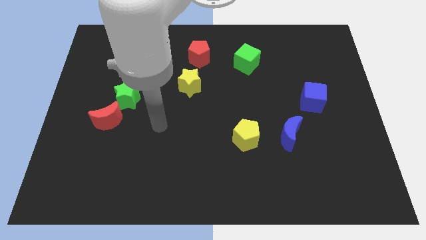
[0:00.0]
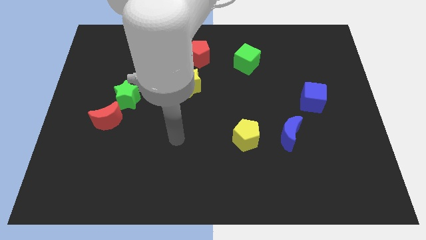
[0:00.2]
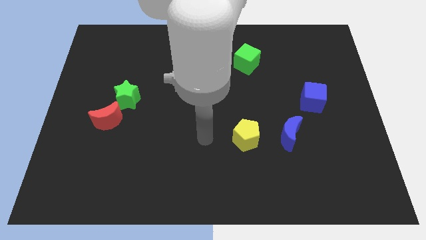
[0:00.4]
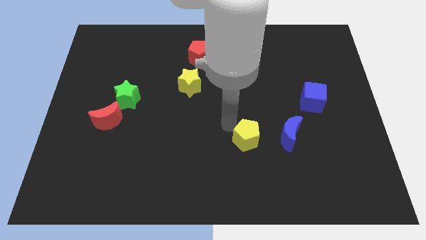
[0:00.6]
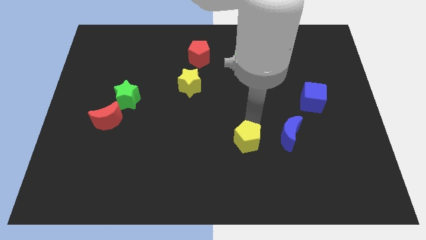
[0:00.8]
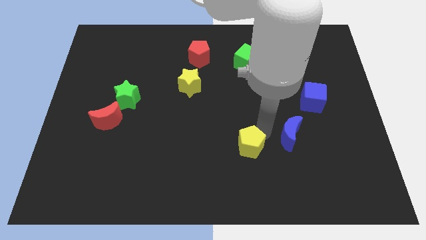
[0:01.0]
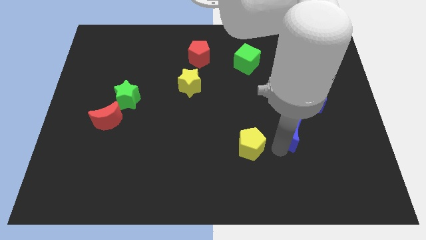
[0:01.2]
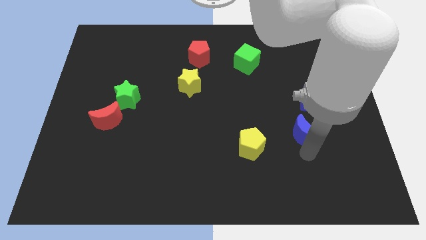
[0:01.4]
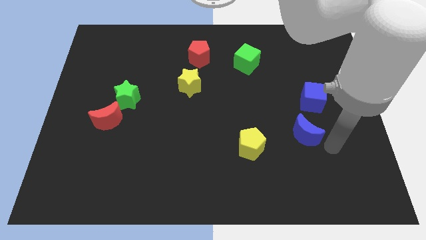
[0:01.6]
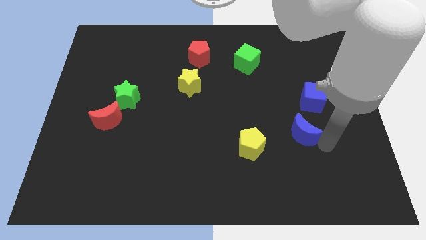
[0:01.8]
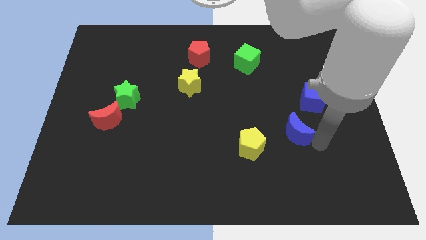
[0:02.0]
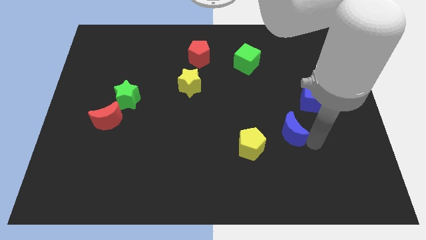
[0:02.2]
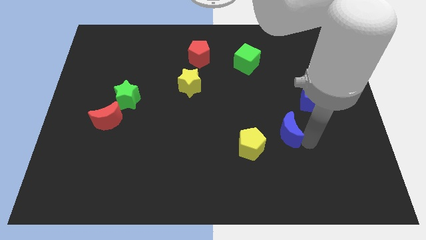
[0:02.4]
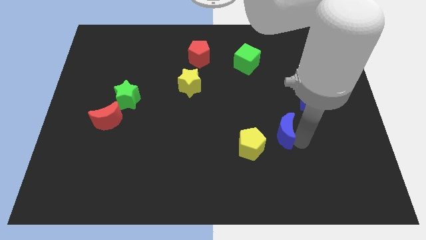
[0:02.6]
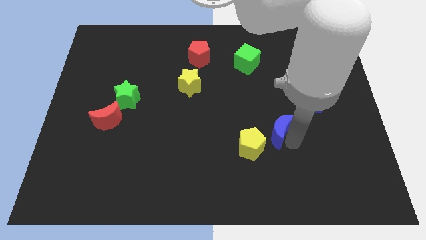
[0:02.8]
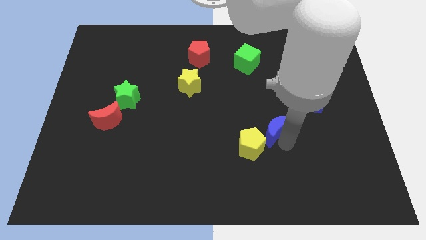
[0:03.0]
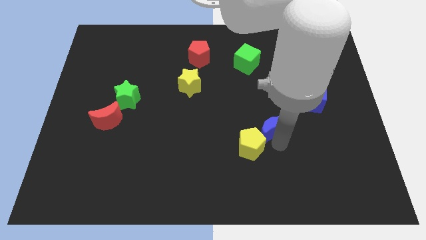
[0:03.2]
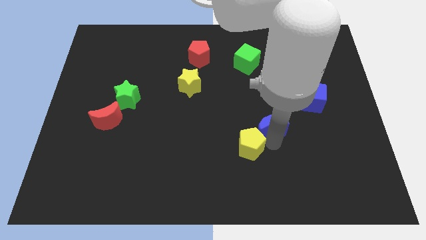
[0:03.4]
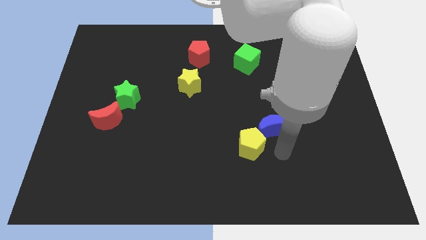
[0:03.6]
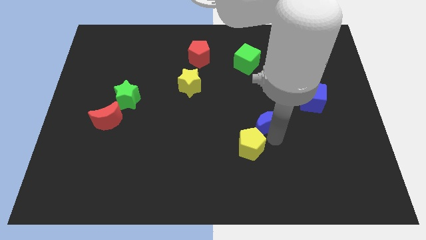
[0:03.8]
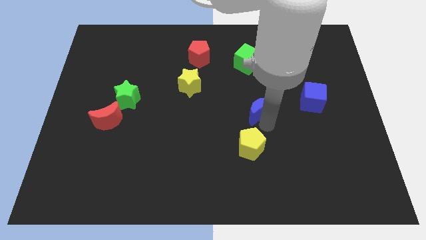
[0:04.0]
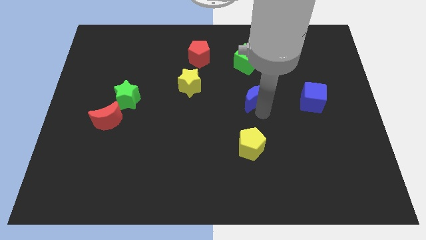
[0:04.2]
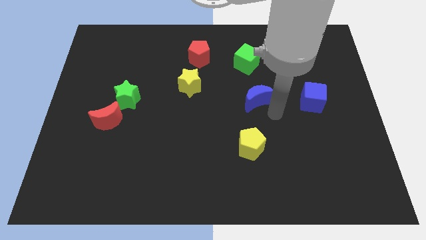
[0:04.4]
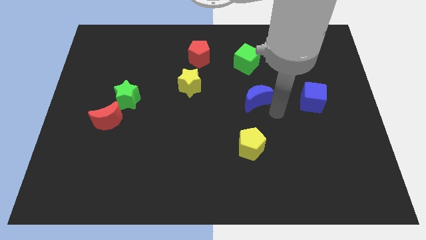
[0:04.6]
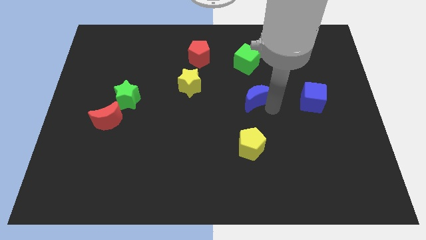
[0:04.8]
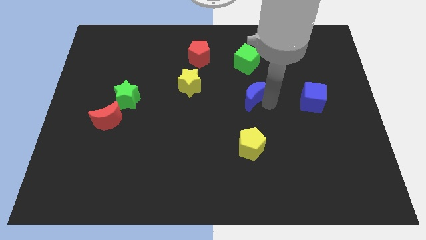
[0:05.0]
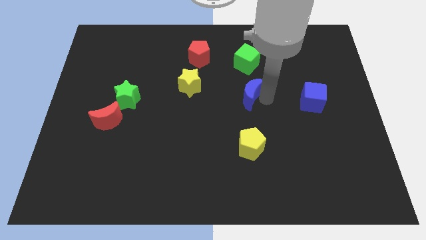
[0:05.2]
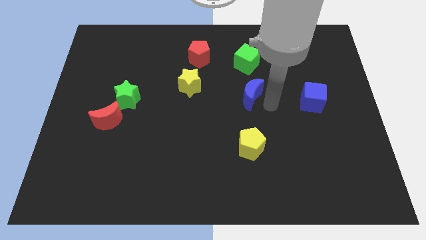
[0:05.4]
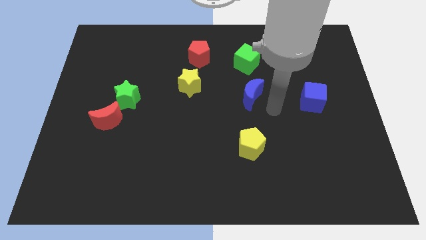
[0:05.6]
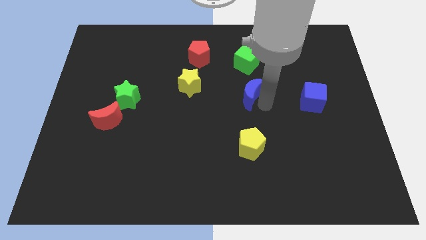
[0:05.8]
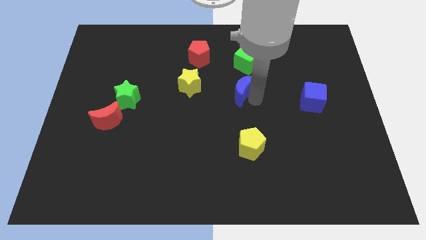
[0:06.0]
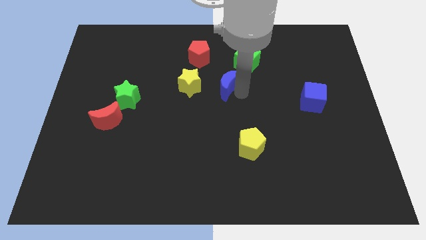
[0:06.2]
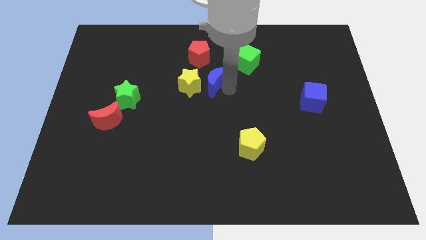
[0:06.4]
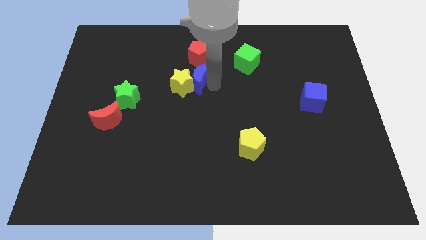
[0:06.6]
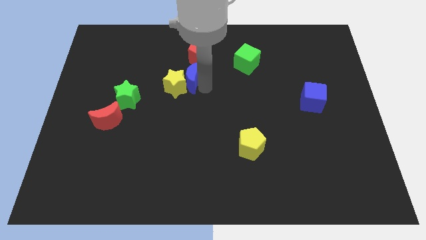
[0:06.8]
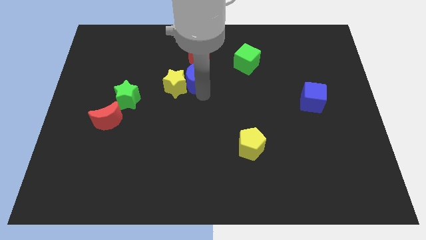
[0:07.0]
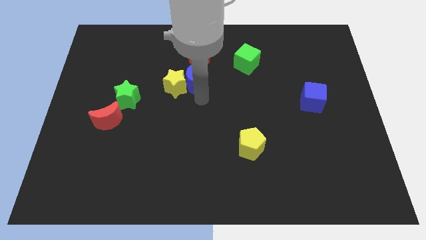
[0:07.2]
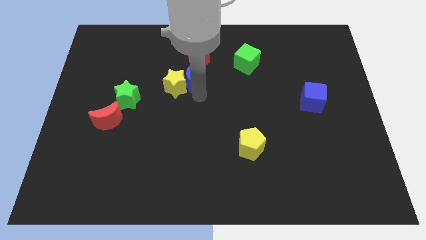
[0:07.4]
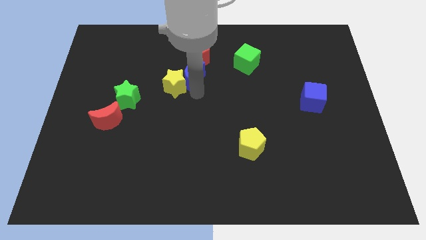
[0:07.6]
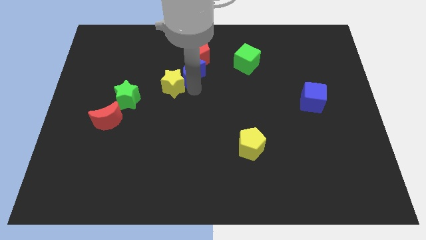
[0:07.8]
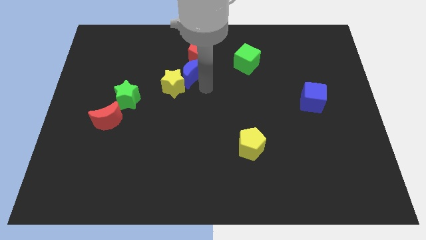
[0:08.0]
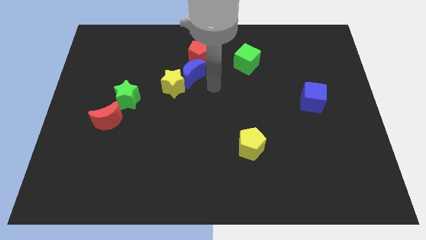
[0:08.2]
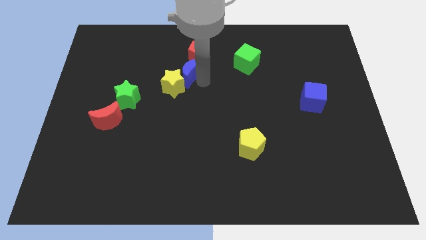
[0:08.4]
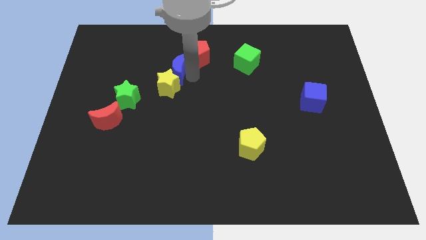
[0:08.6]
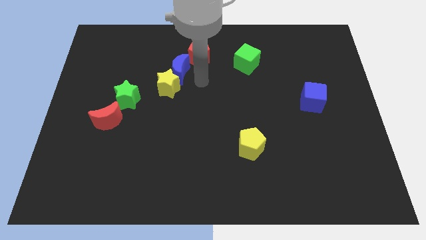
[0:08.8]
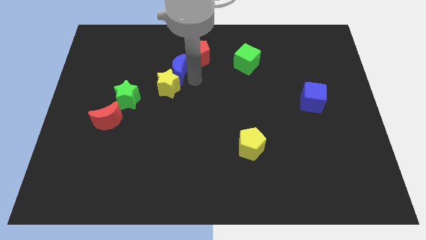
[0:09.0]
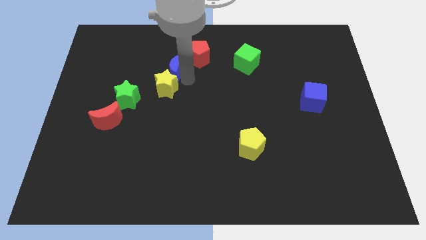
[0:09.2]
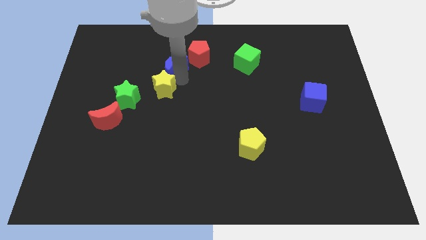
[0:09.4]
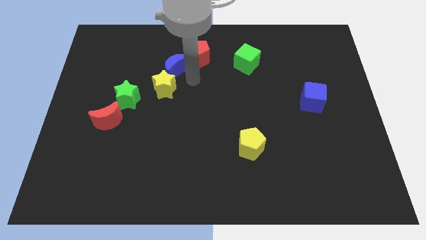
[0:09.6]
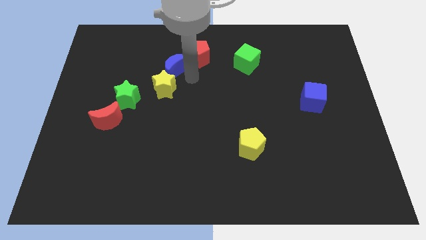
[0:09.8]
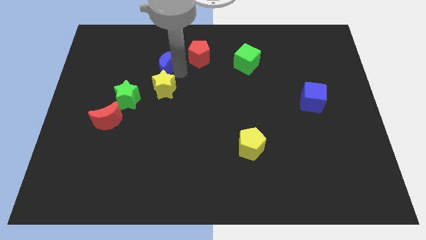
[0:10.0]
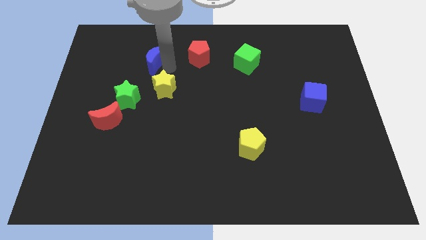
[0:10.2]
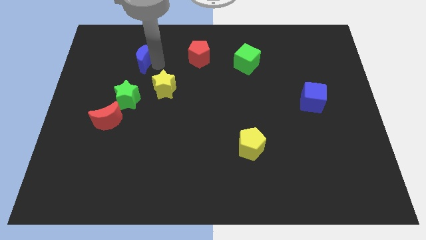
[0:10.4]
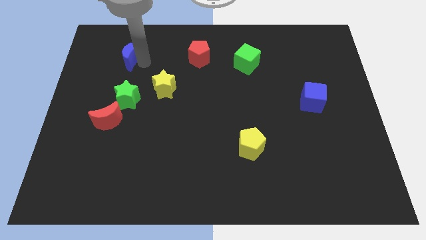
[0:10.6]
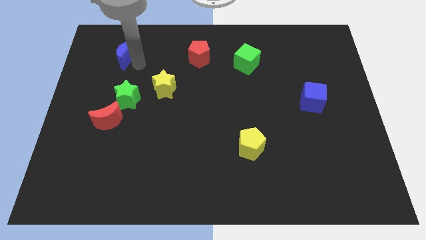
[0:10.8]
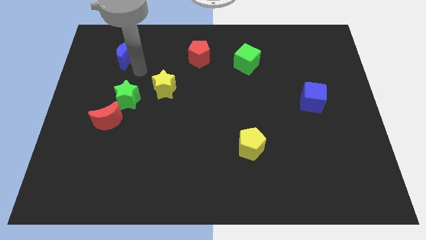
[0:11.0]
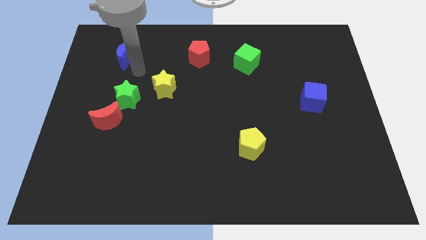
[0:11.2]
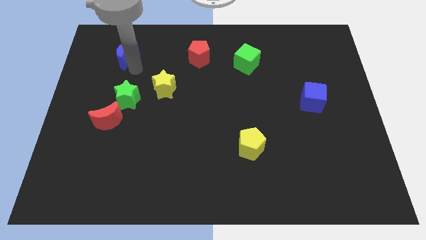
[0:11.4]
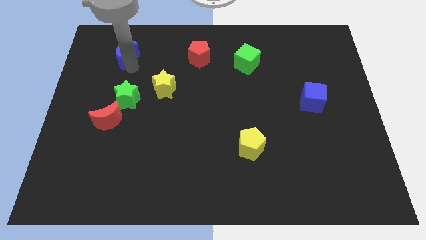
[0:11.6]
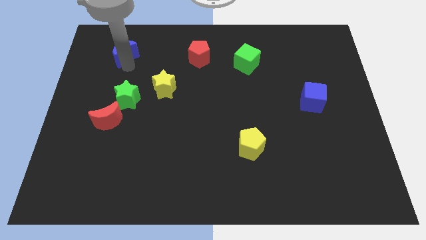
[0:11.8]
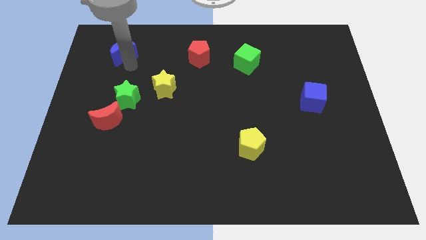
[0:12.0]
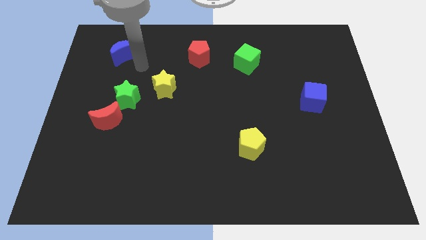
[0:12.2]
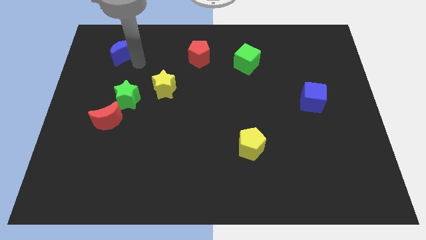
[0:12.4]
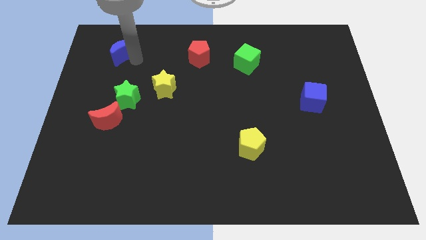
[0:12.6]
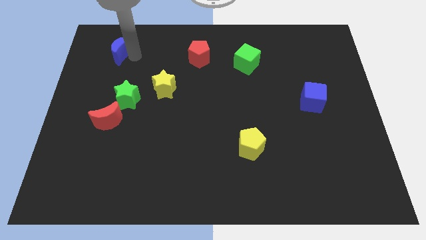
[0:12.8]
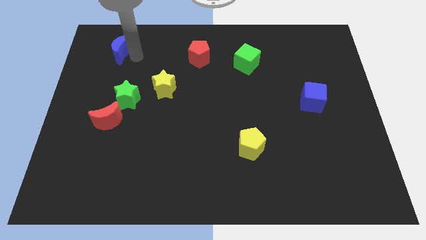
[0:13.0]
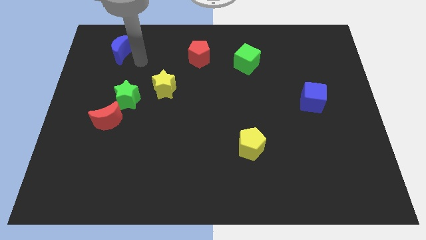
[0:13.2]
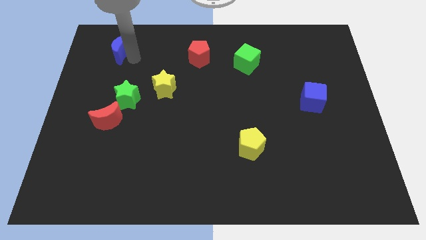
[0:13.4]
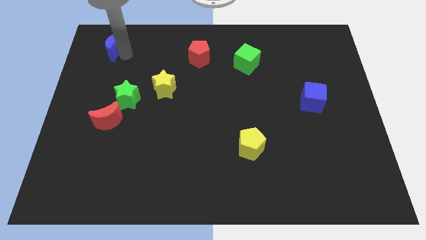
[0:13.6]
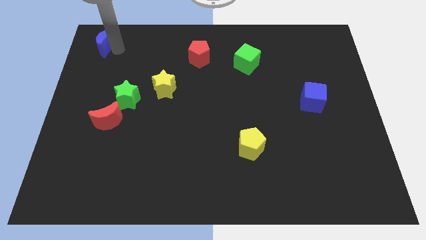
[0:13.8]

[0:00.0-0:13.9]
move the blue moon to the top left corner

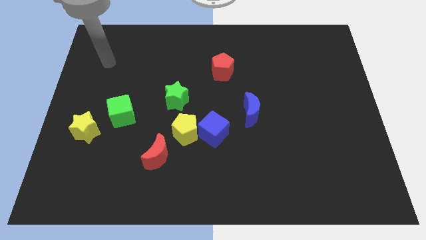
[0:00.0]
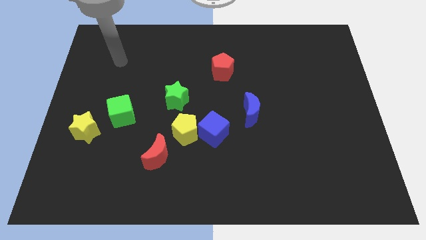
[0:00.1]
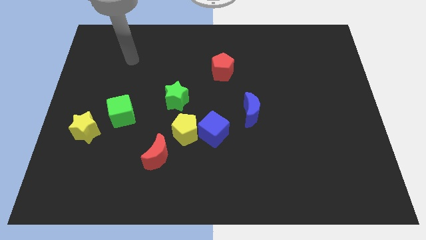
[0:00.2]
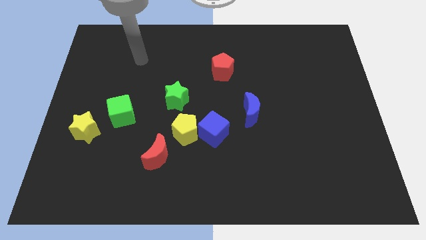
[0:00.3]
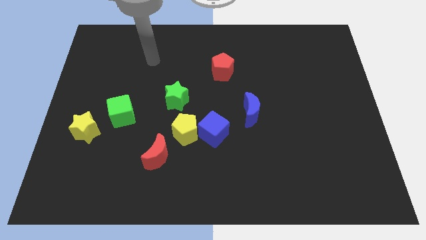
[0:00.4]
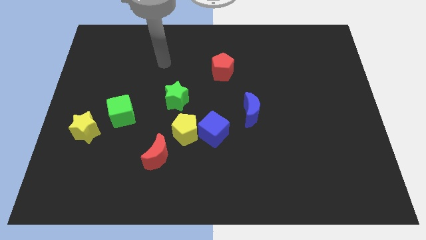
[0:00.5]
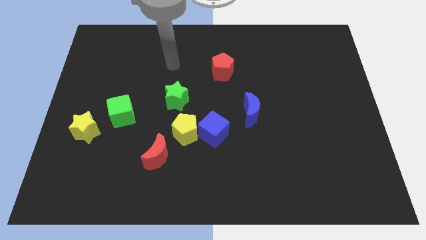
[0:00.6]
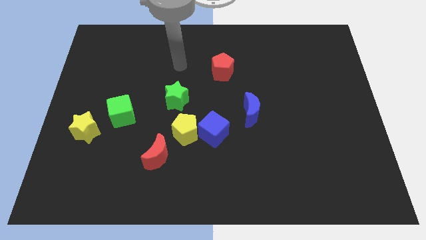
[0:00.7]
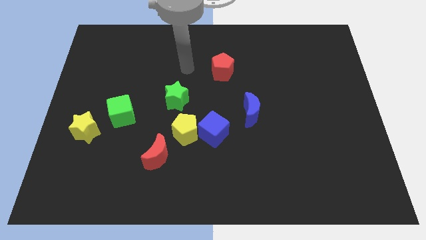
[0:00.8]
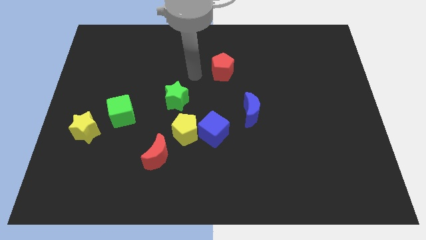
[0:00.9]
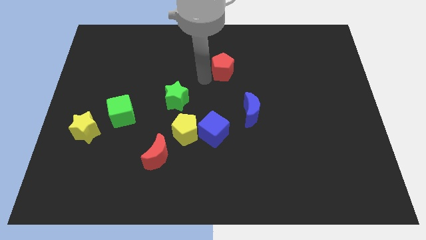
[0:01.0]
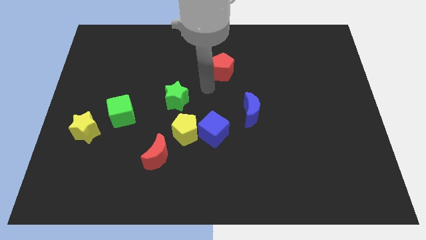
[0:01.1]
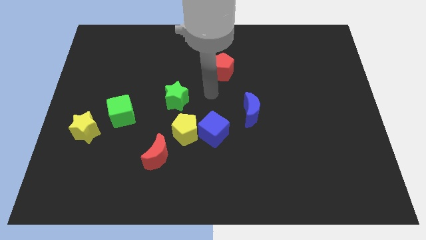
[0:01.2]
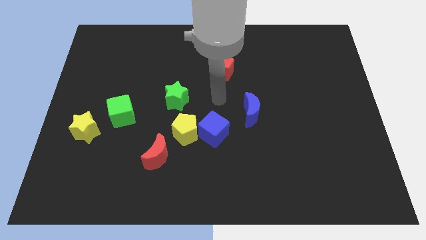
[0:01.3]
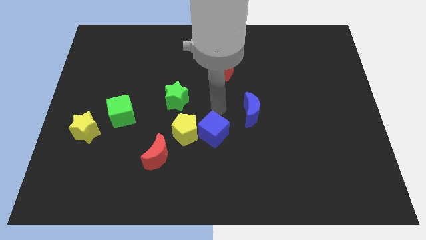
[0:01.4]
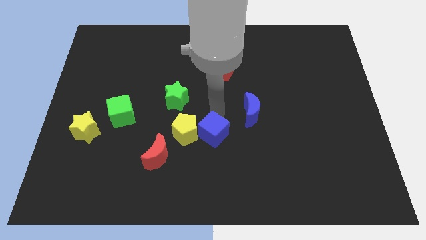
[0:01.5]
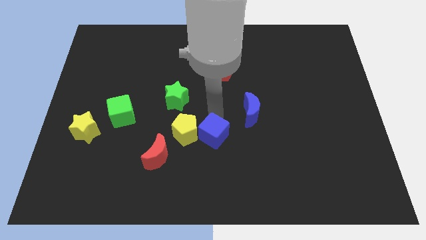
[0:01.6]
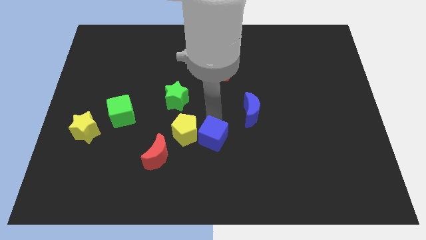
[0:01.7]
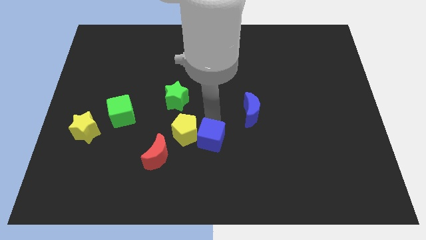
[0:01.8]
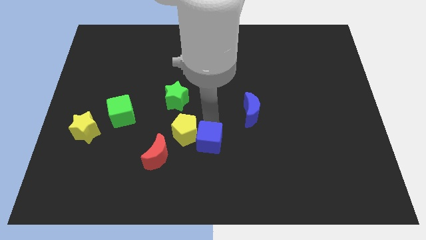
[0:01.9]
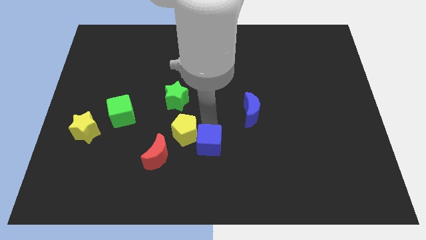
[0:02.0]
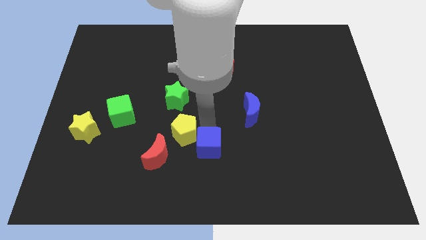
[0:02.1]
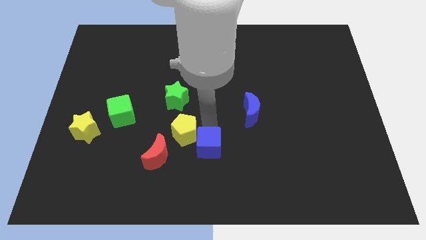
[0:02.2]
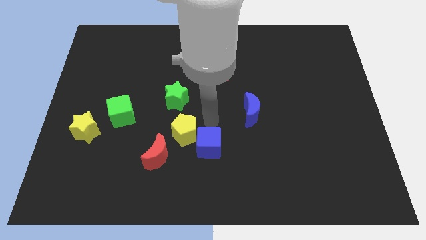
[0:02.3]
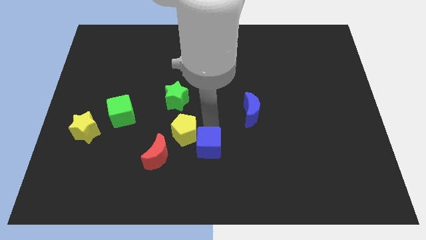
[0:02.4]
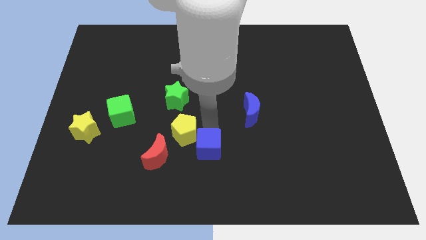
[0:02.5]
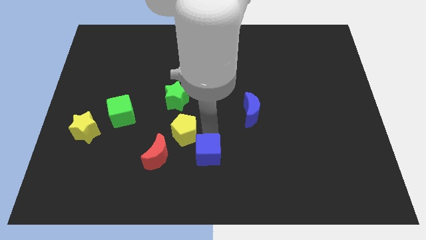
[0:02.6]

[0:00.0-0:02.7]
move the blue cube to the bottom
